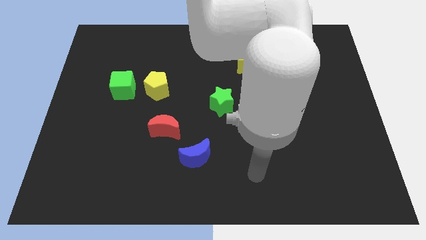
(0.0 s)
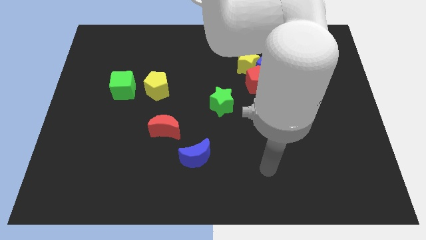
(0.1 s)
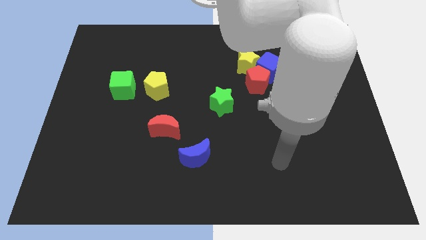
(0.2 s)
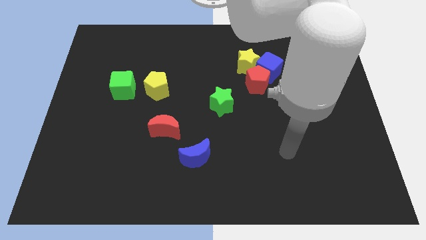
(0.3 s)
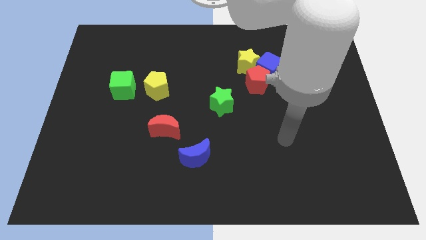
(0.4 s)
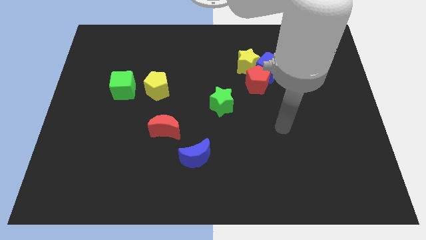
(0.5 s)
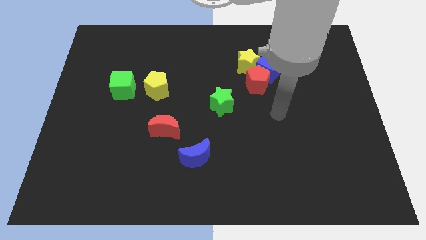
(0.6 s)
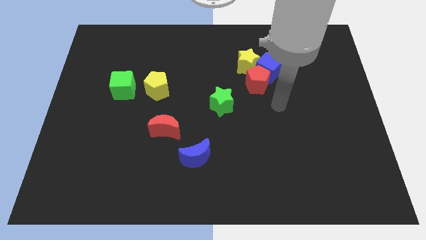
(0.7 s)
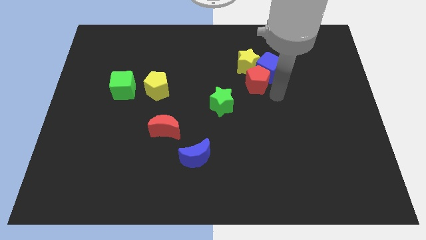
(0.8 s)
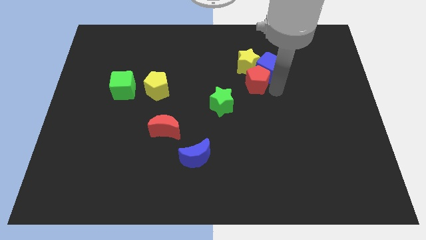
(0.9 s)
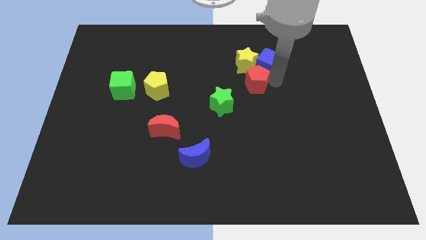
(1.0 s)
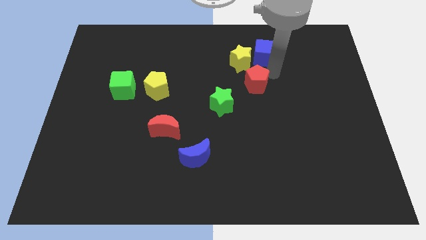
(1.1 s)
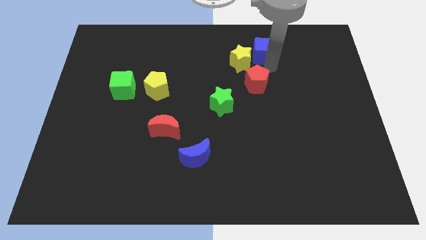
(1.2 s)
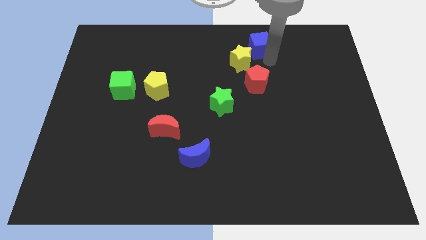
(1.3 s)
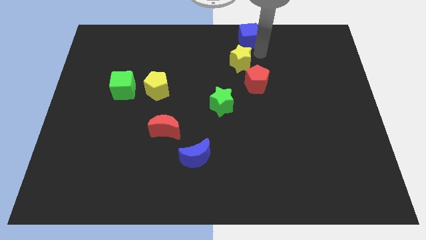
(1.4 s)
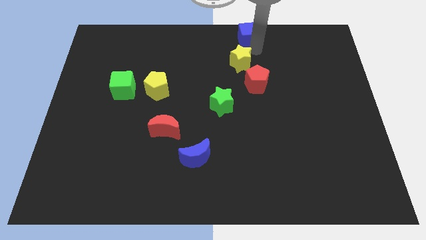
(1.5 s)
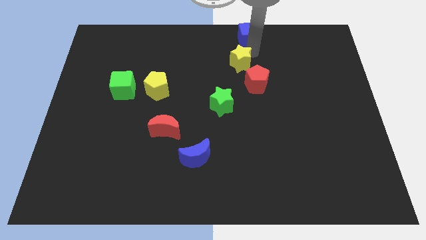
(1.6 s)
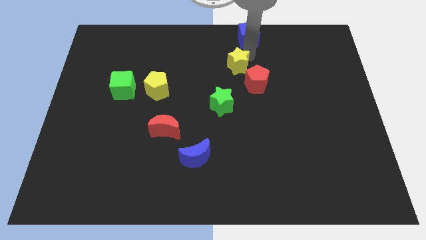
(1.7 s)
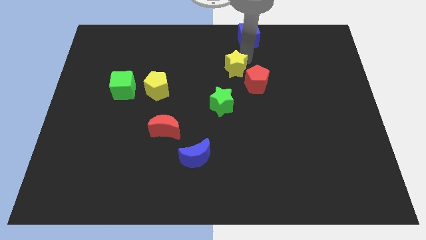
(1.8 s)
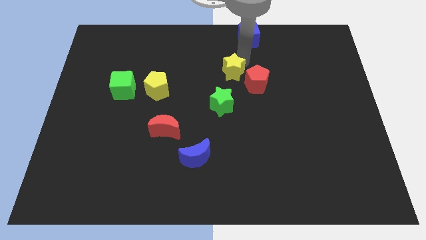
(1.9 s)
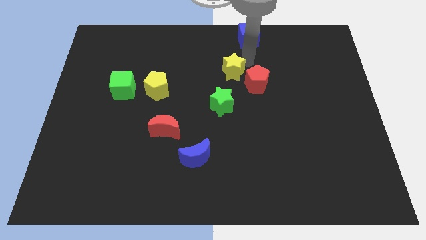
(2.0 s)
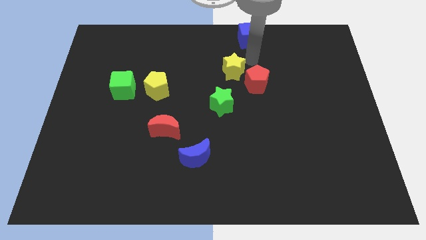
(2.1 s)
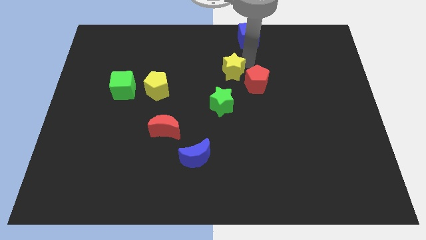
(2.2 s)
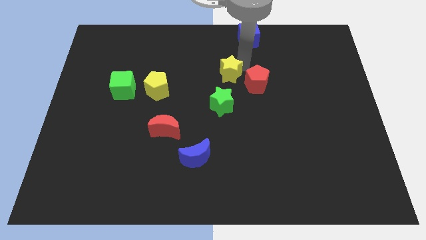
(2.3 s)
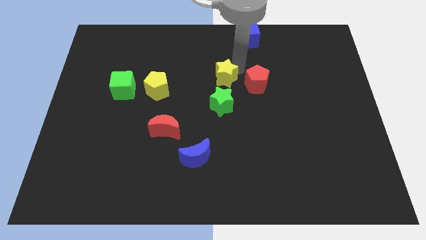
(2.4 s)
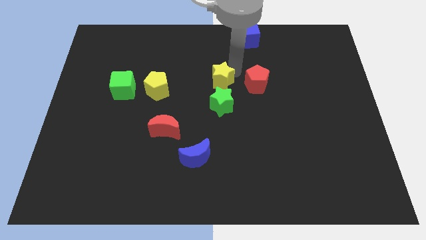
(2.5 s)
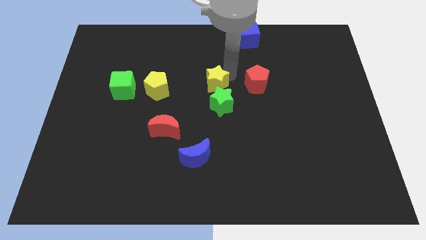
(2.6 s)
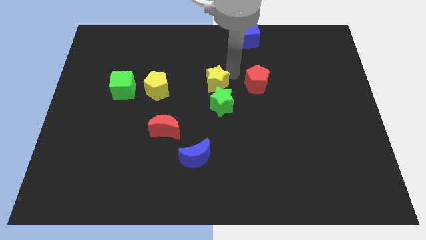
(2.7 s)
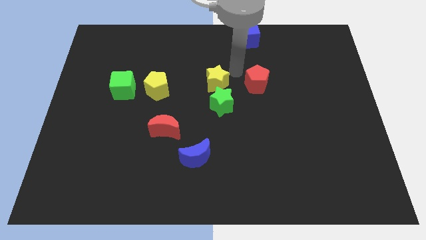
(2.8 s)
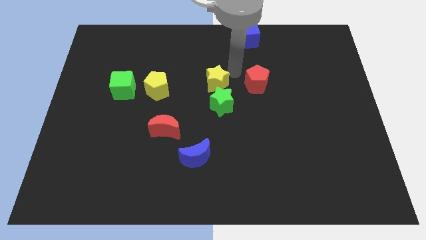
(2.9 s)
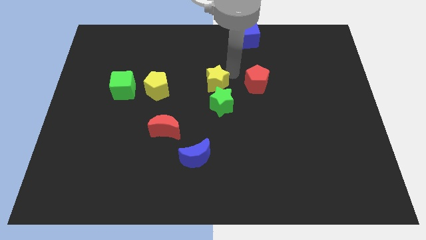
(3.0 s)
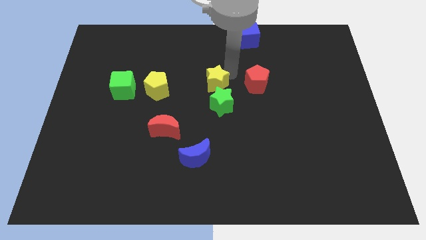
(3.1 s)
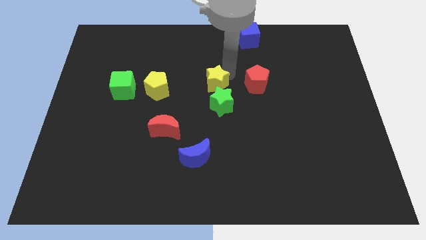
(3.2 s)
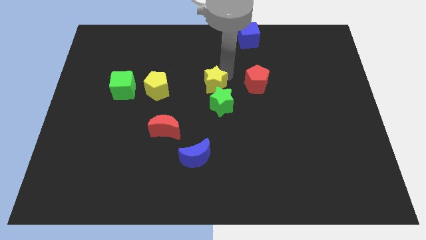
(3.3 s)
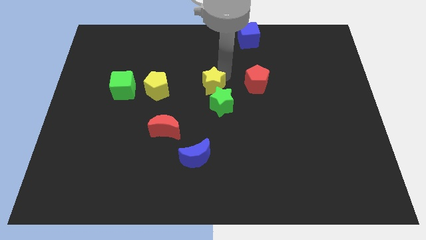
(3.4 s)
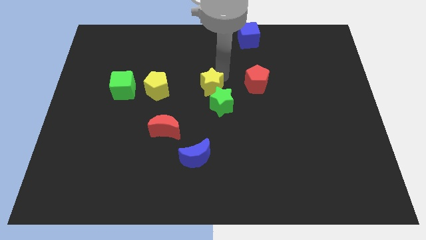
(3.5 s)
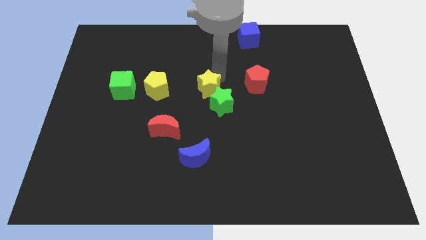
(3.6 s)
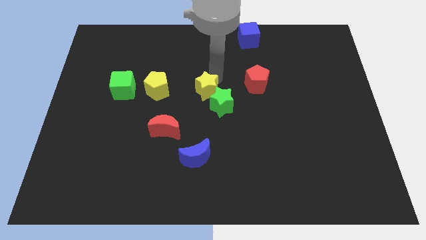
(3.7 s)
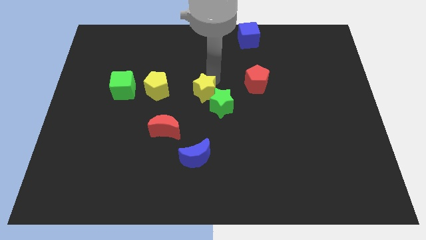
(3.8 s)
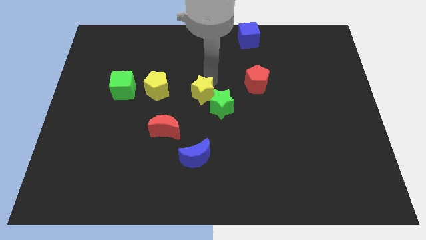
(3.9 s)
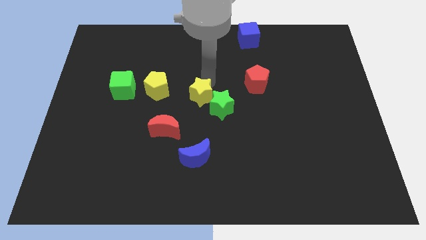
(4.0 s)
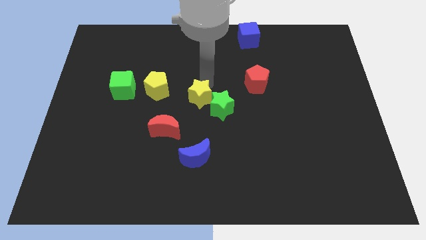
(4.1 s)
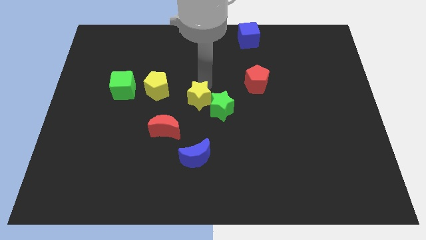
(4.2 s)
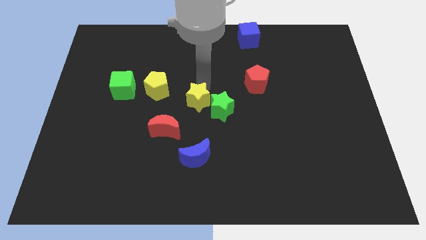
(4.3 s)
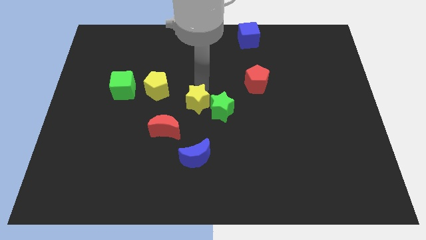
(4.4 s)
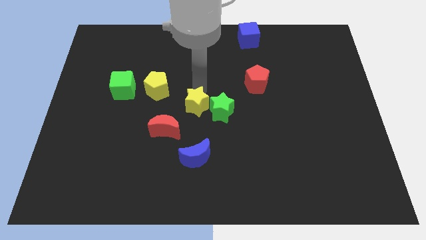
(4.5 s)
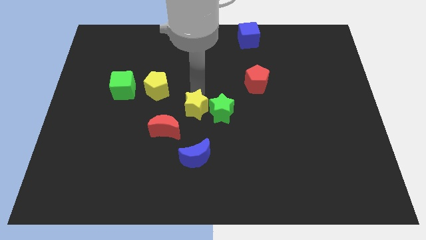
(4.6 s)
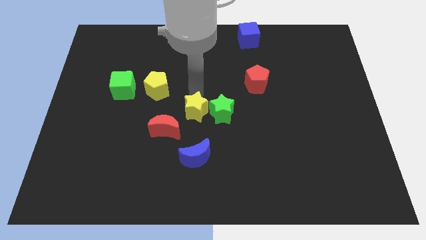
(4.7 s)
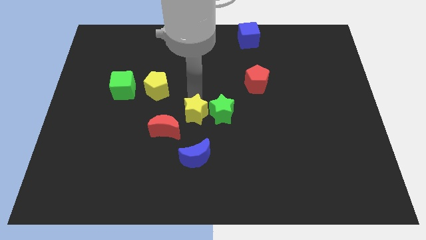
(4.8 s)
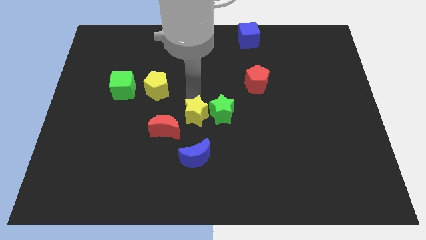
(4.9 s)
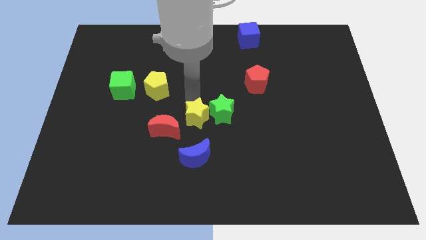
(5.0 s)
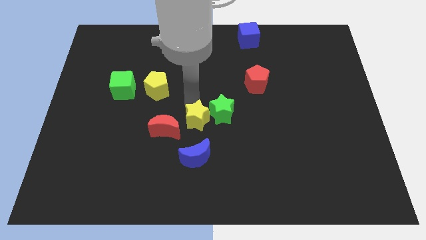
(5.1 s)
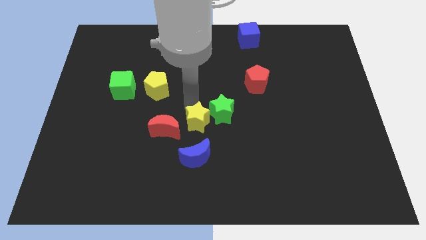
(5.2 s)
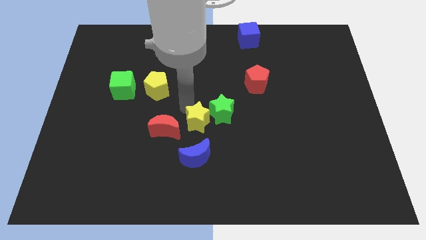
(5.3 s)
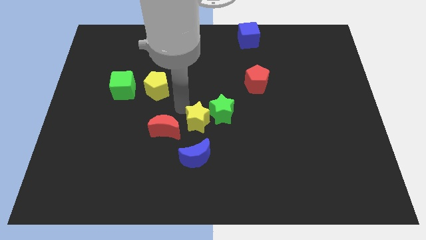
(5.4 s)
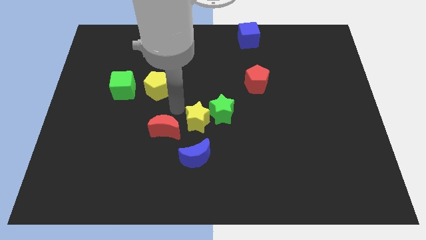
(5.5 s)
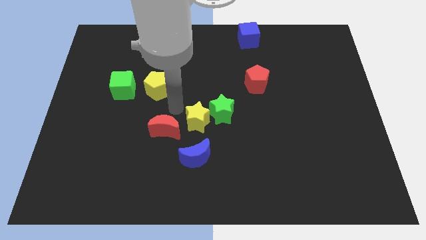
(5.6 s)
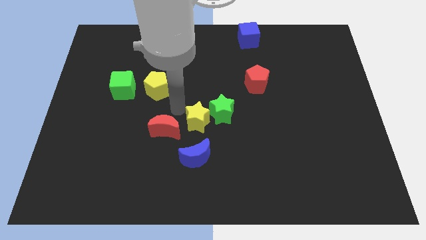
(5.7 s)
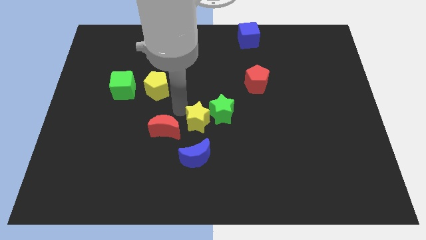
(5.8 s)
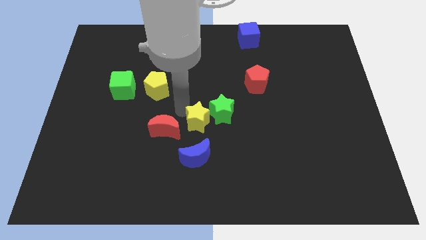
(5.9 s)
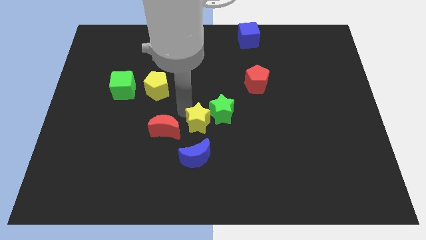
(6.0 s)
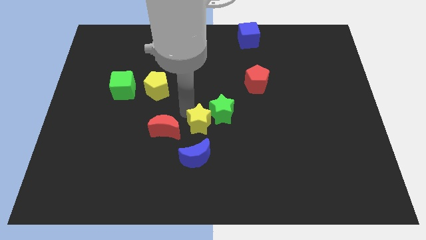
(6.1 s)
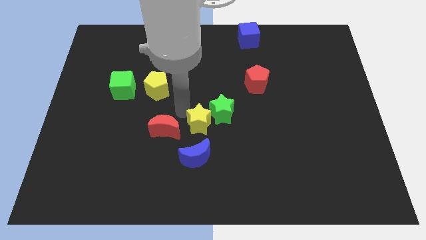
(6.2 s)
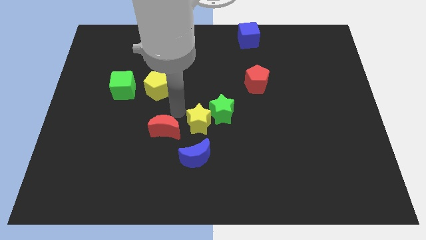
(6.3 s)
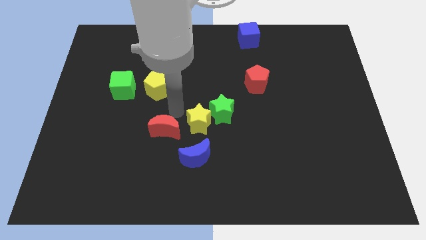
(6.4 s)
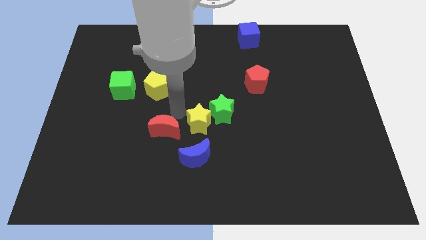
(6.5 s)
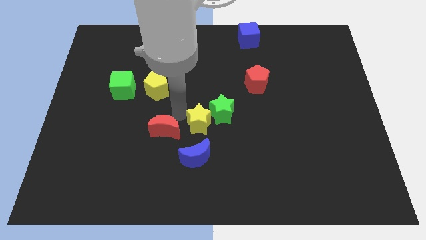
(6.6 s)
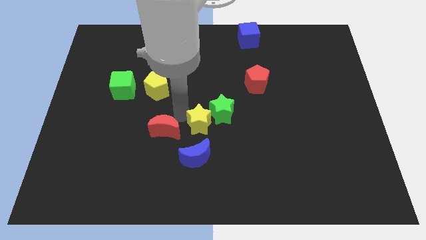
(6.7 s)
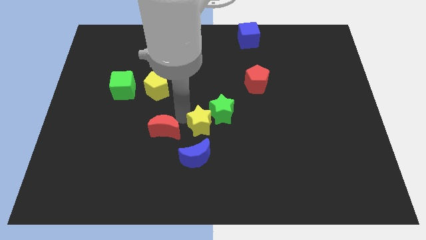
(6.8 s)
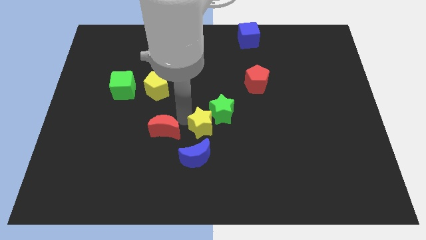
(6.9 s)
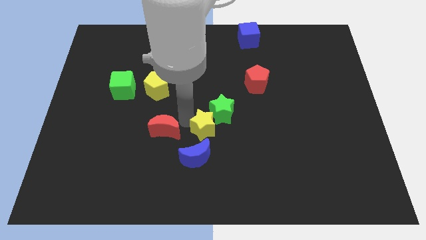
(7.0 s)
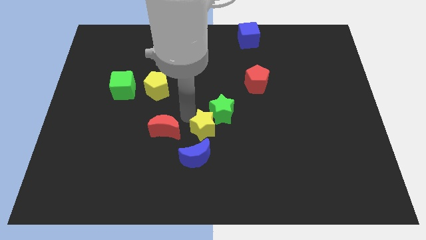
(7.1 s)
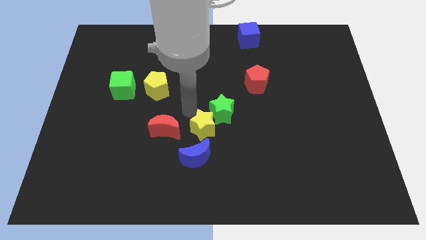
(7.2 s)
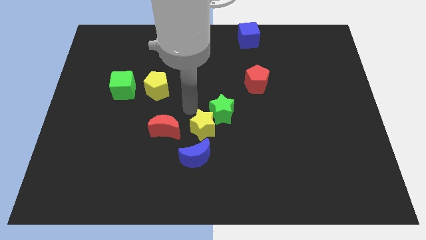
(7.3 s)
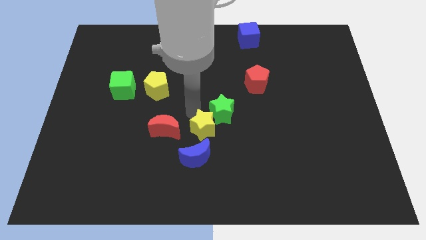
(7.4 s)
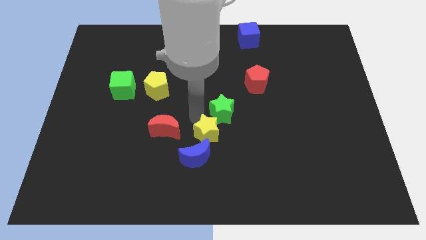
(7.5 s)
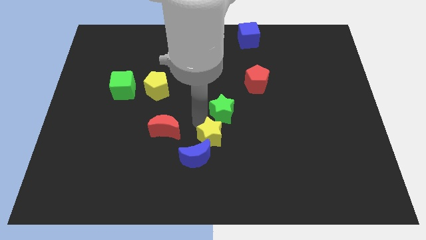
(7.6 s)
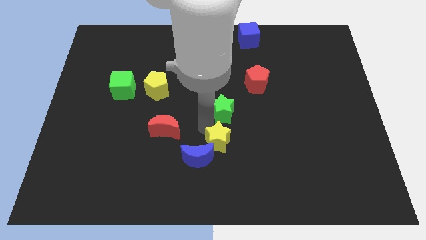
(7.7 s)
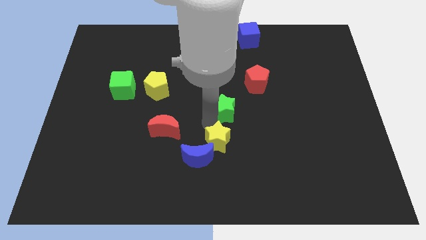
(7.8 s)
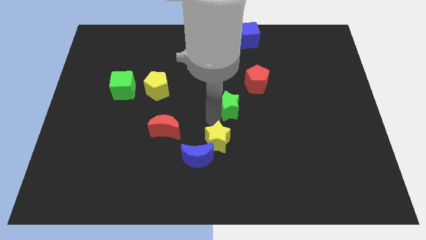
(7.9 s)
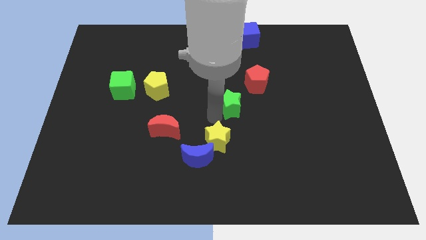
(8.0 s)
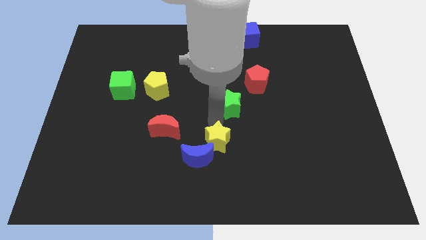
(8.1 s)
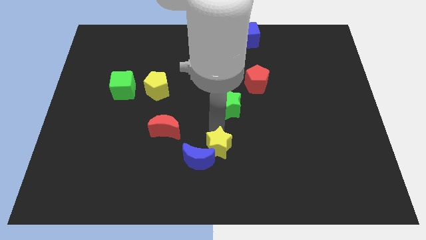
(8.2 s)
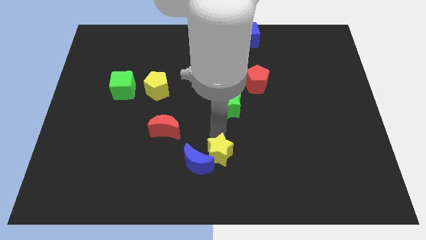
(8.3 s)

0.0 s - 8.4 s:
move the yellow star to the bottom
